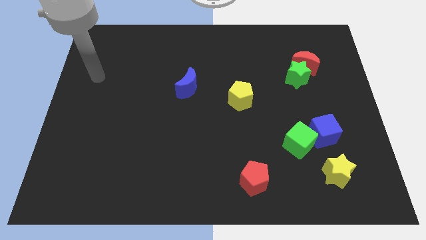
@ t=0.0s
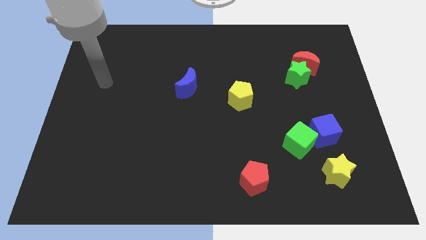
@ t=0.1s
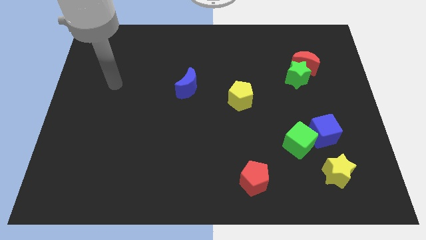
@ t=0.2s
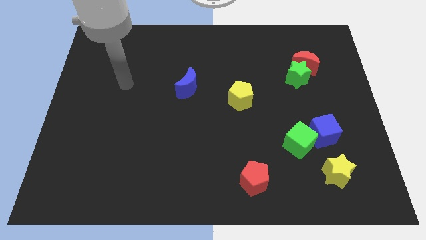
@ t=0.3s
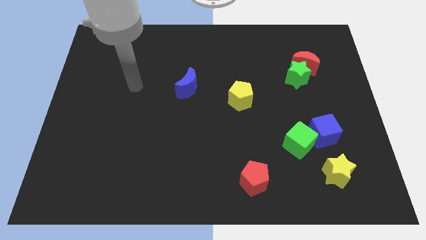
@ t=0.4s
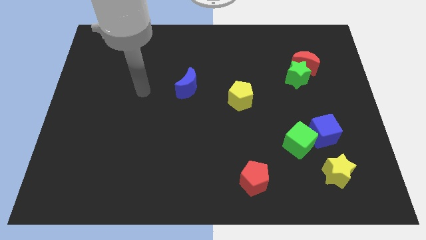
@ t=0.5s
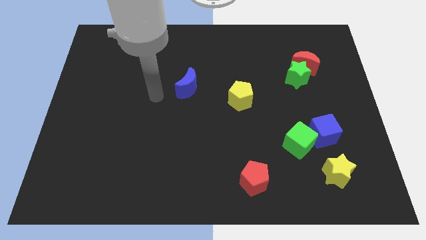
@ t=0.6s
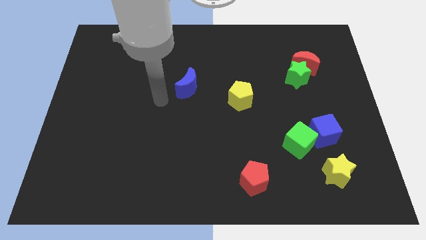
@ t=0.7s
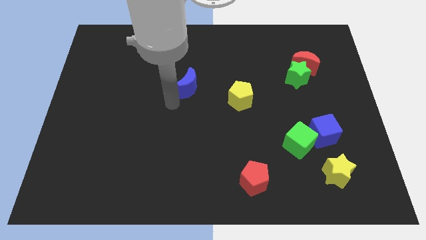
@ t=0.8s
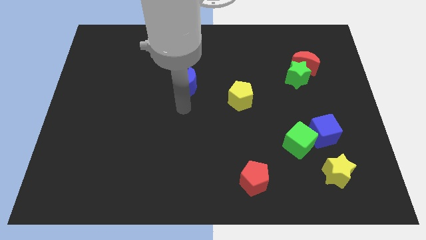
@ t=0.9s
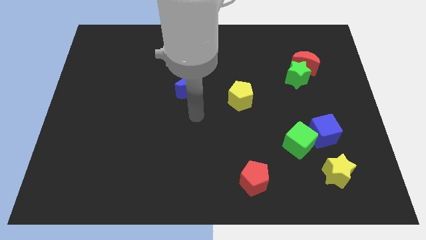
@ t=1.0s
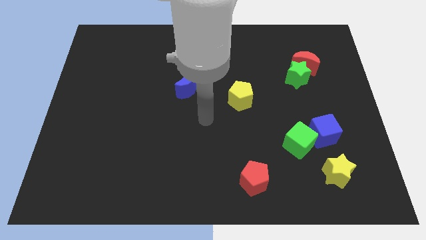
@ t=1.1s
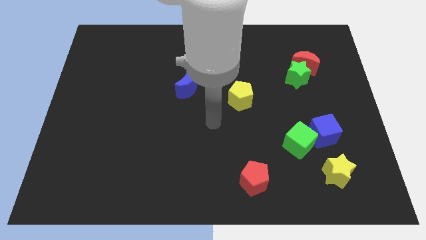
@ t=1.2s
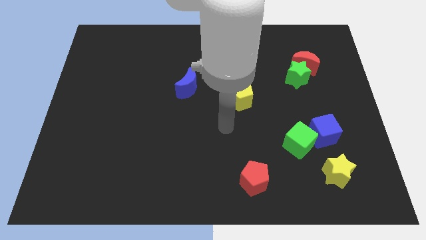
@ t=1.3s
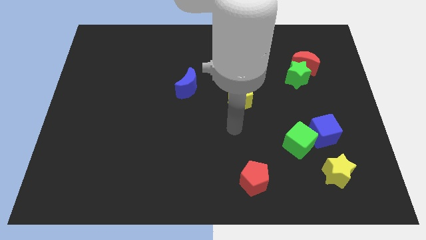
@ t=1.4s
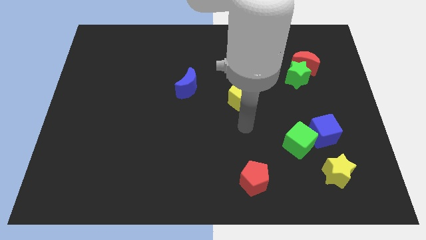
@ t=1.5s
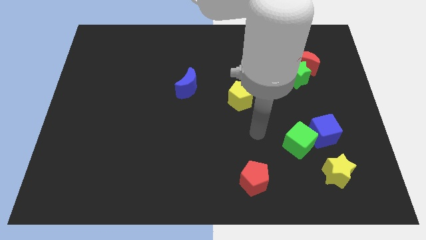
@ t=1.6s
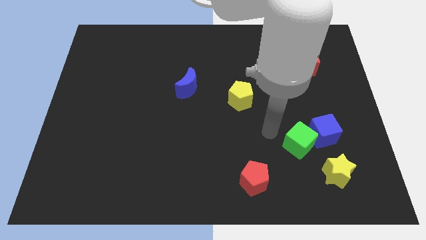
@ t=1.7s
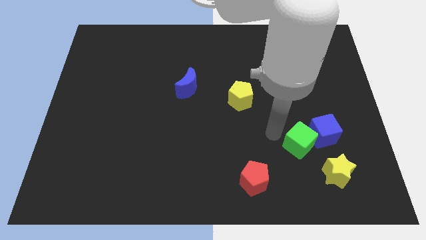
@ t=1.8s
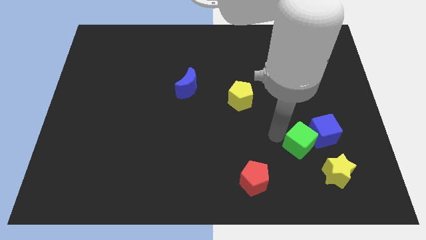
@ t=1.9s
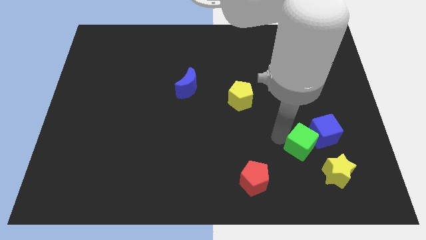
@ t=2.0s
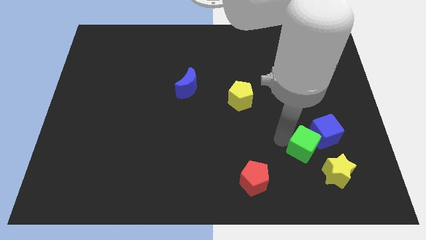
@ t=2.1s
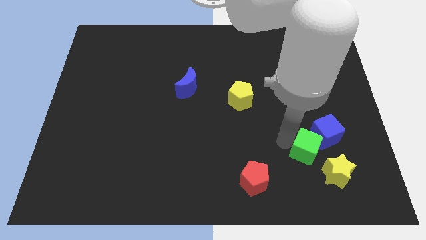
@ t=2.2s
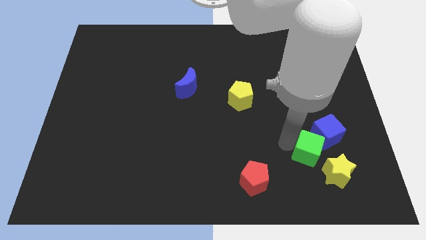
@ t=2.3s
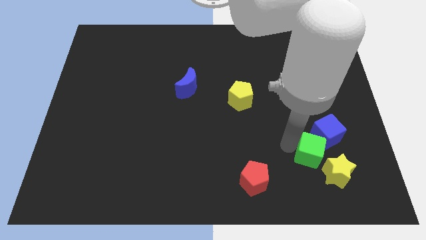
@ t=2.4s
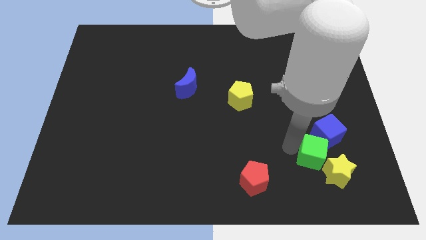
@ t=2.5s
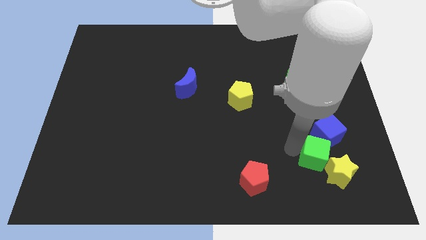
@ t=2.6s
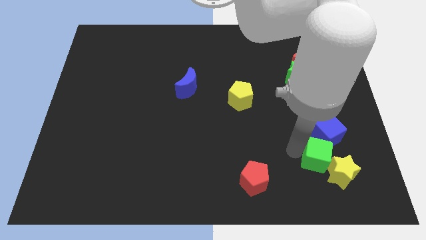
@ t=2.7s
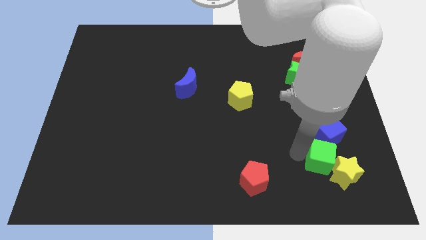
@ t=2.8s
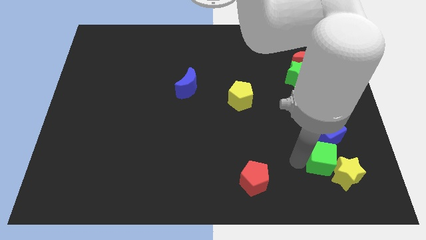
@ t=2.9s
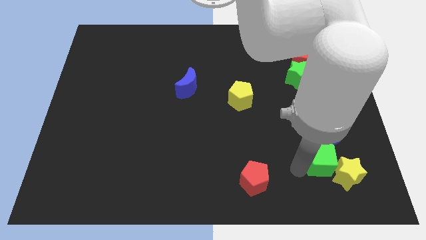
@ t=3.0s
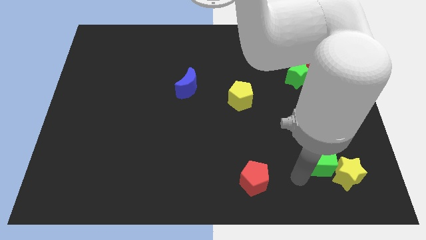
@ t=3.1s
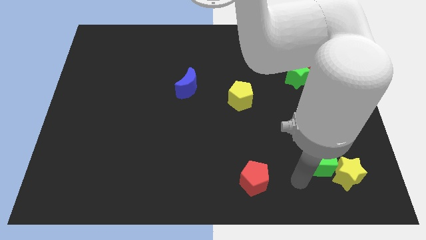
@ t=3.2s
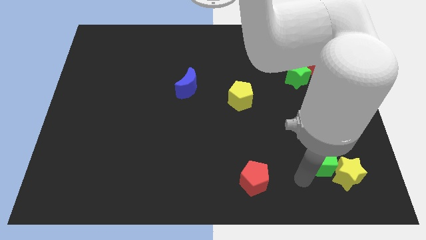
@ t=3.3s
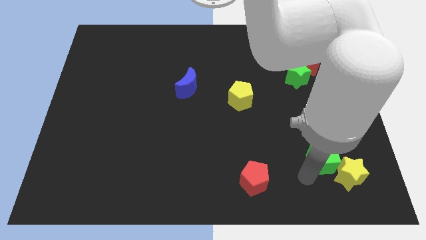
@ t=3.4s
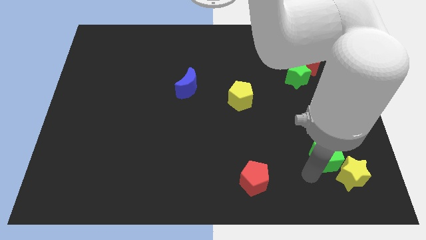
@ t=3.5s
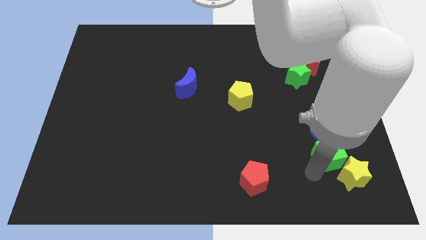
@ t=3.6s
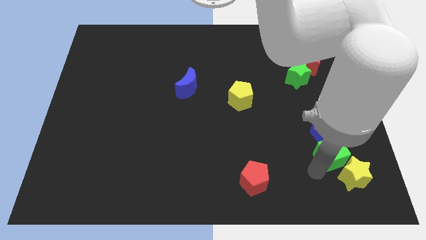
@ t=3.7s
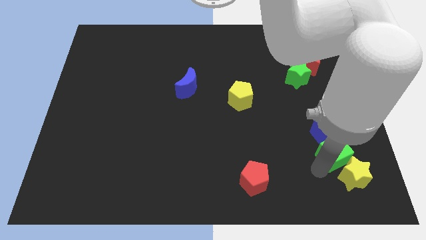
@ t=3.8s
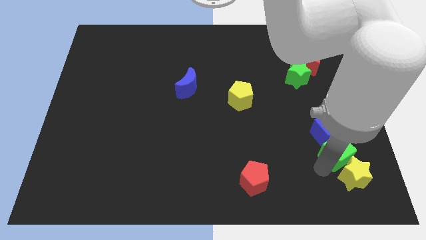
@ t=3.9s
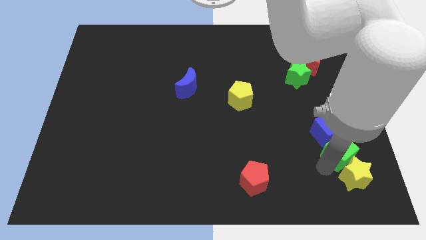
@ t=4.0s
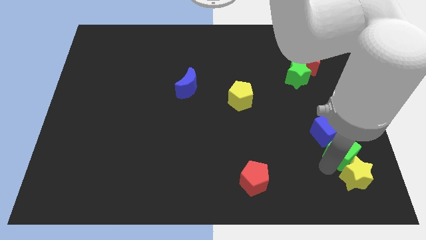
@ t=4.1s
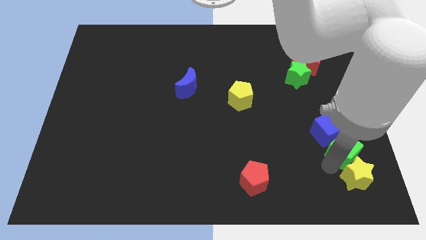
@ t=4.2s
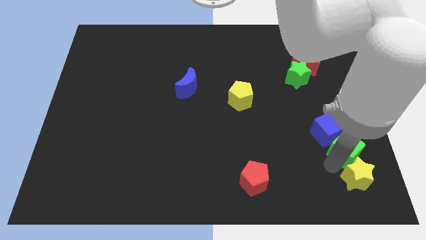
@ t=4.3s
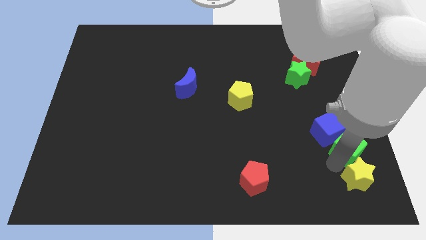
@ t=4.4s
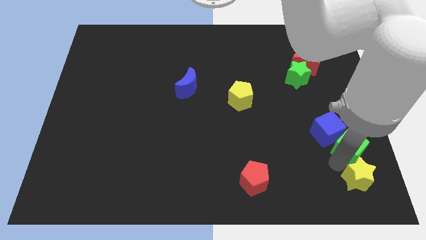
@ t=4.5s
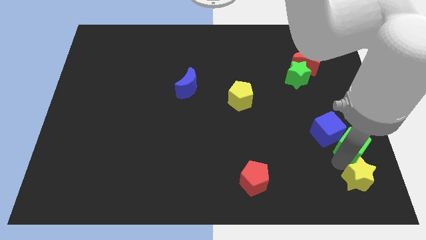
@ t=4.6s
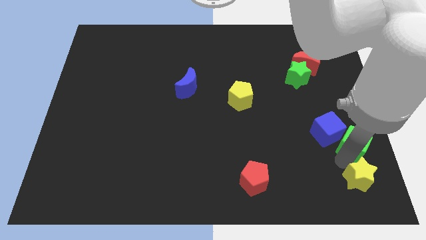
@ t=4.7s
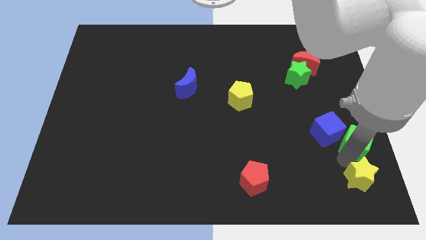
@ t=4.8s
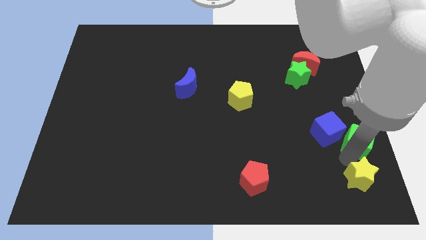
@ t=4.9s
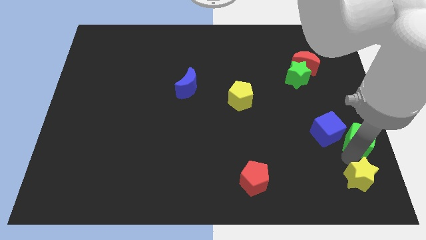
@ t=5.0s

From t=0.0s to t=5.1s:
put the green cube to the right side

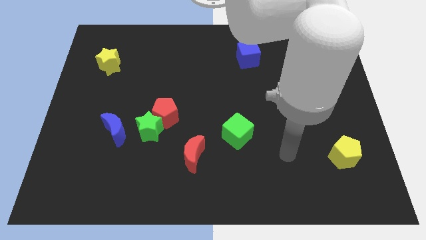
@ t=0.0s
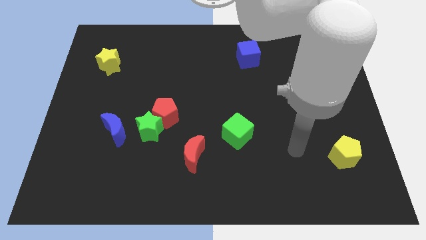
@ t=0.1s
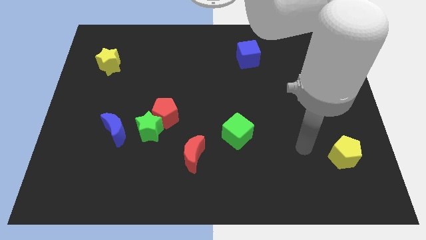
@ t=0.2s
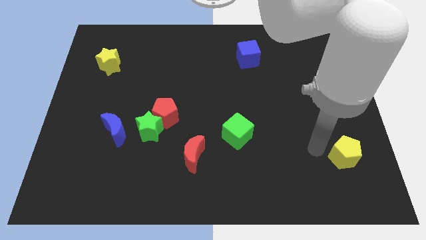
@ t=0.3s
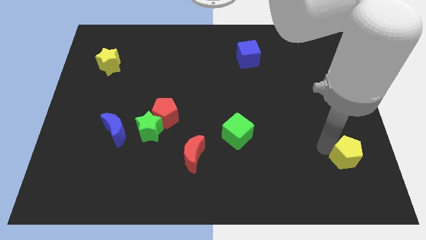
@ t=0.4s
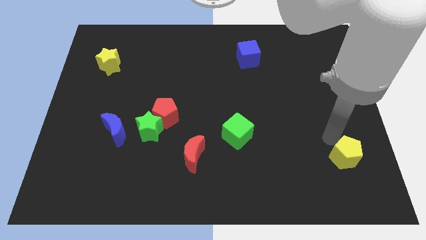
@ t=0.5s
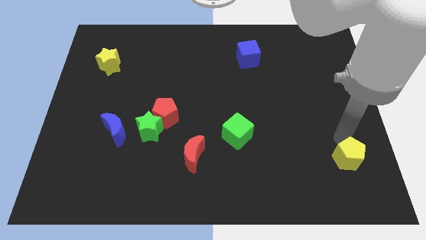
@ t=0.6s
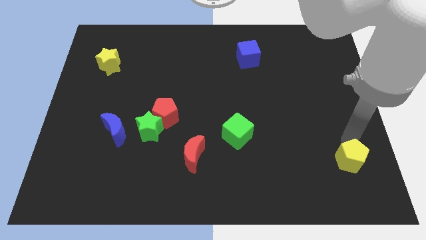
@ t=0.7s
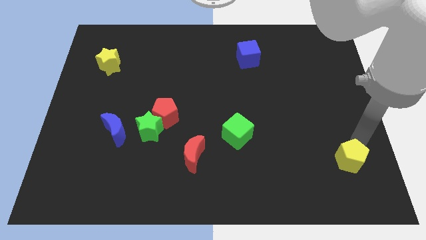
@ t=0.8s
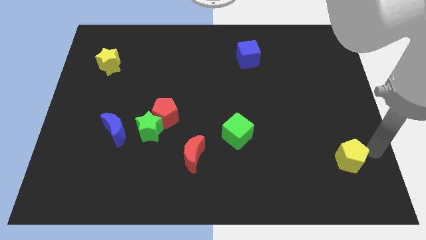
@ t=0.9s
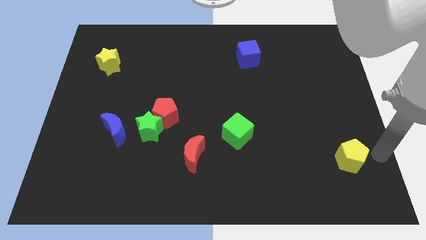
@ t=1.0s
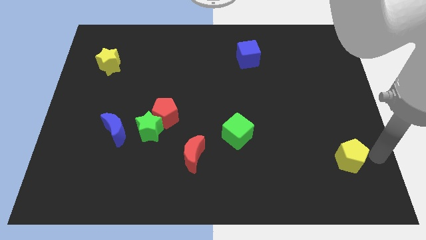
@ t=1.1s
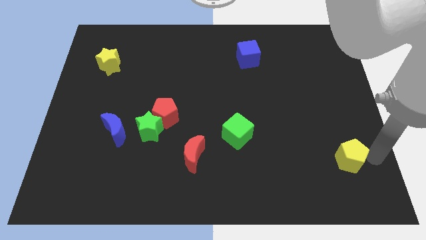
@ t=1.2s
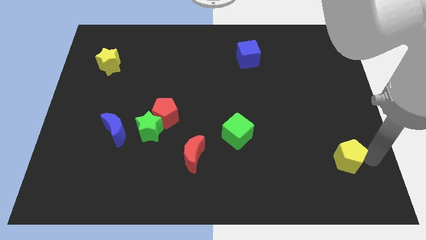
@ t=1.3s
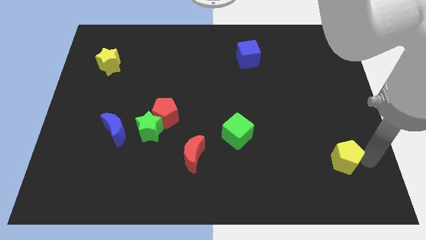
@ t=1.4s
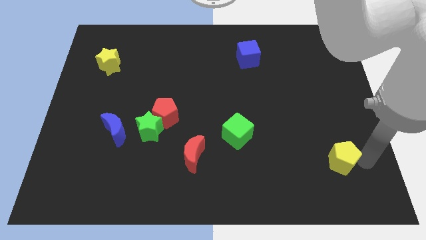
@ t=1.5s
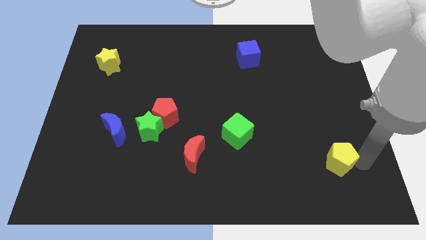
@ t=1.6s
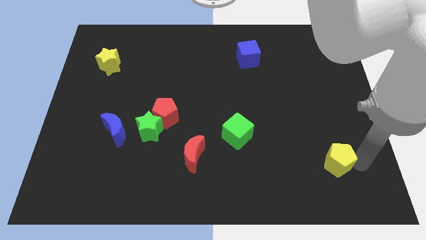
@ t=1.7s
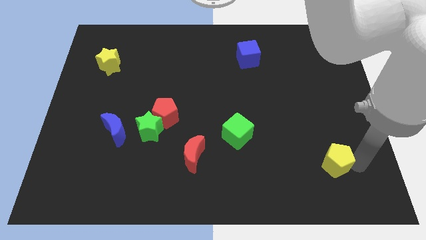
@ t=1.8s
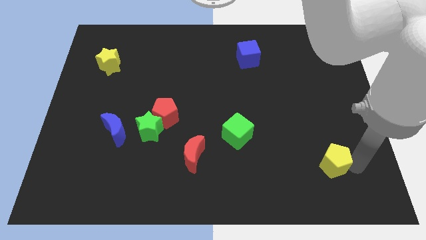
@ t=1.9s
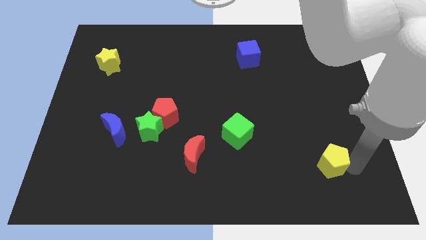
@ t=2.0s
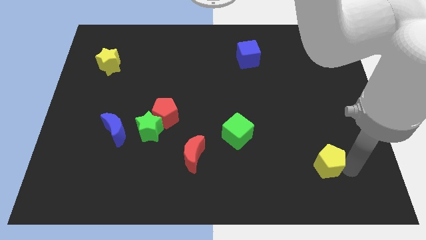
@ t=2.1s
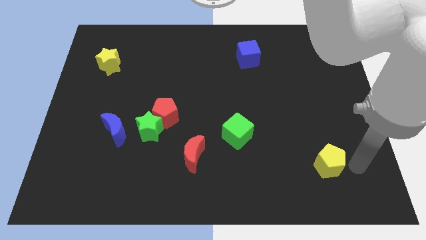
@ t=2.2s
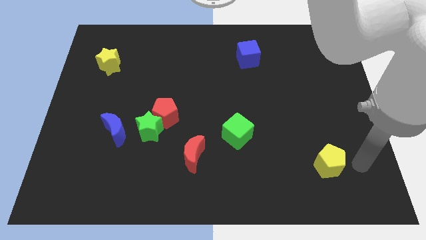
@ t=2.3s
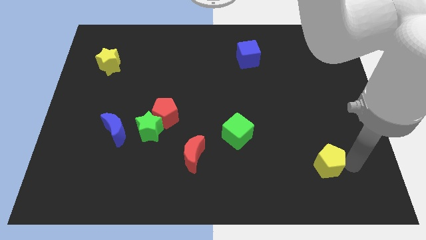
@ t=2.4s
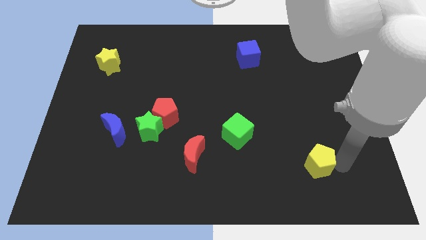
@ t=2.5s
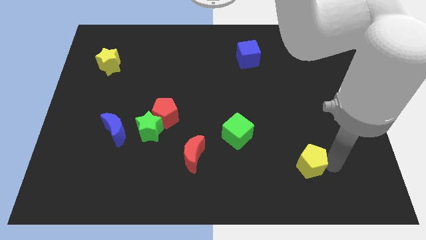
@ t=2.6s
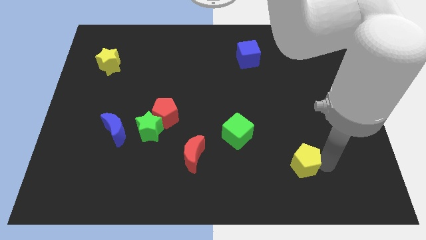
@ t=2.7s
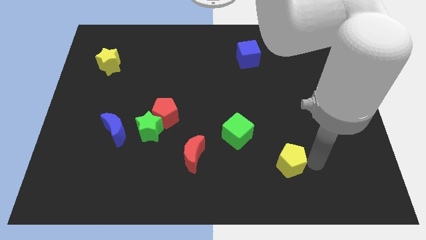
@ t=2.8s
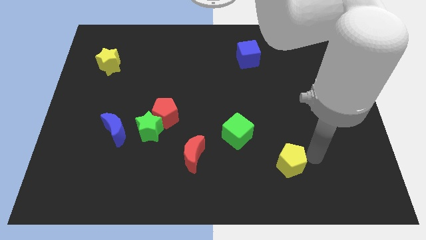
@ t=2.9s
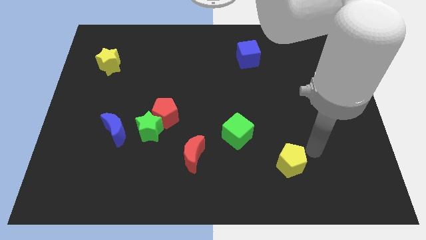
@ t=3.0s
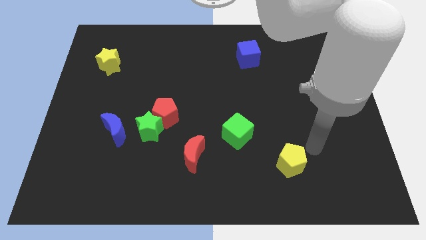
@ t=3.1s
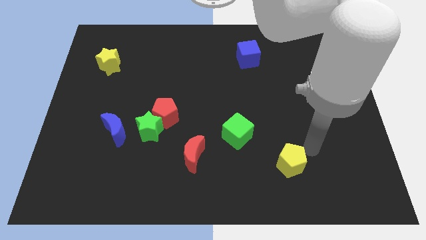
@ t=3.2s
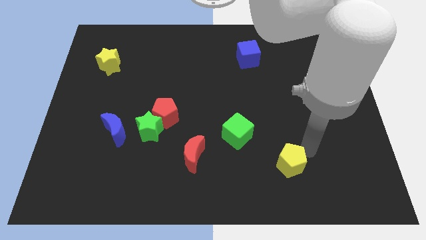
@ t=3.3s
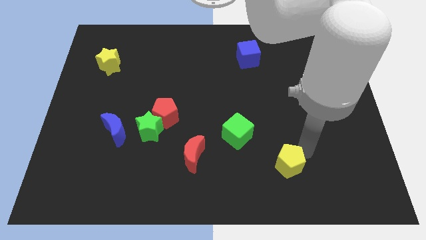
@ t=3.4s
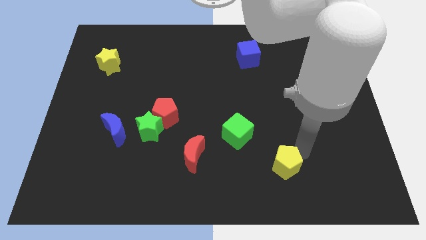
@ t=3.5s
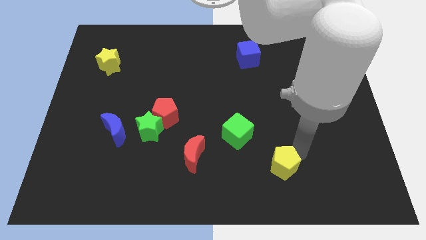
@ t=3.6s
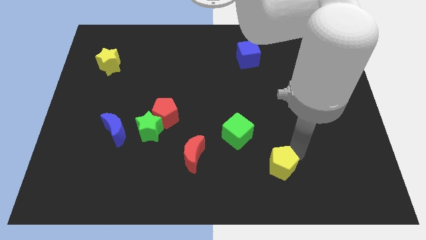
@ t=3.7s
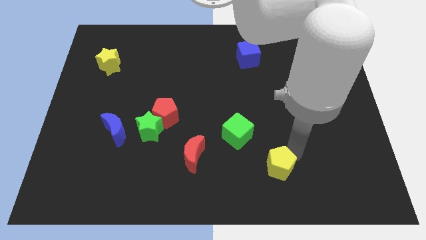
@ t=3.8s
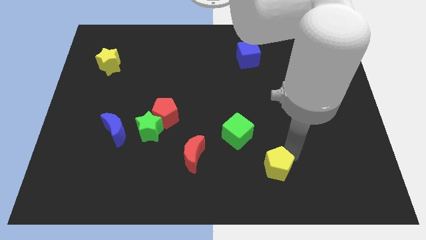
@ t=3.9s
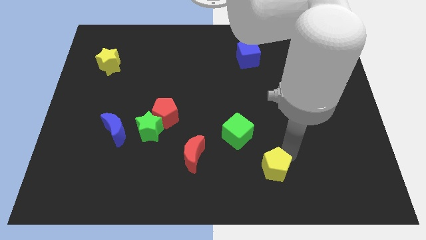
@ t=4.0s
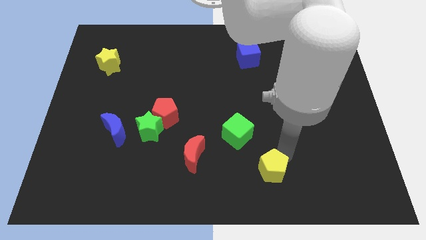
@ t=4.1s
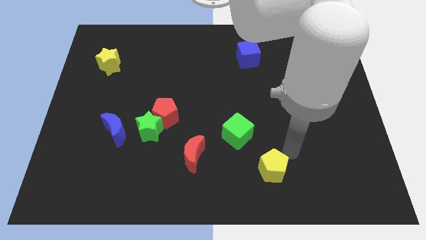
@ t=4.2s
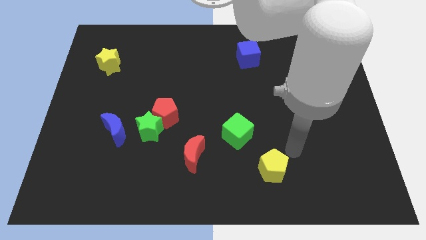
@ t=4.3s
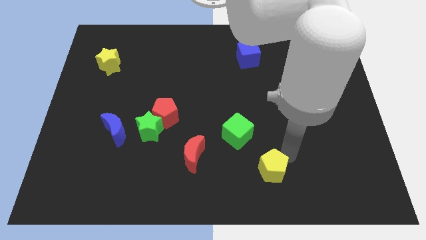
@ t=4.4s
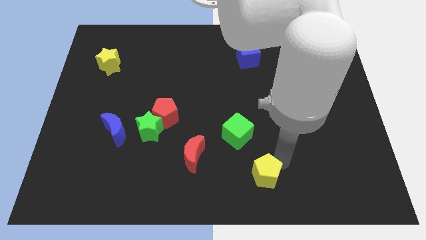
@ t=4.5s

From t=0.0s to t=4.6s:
move the yellow pentagon to the bottom side
